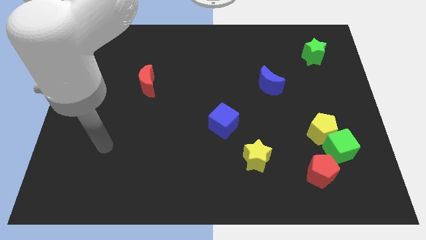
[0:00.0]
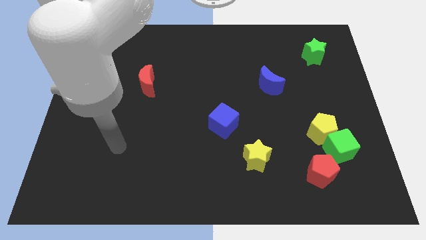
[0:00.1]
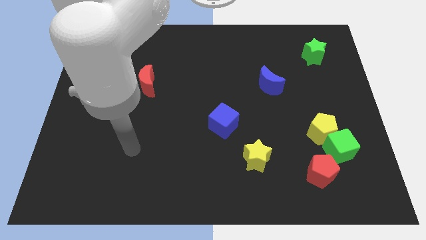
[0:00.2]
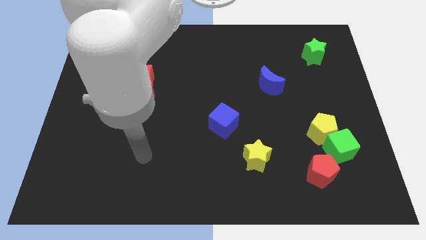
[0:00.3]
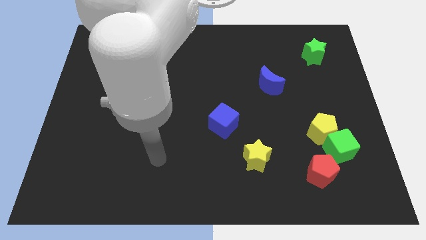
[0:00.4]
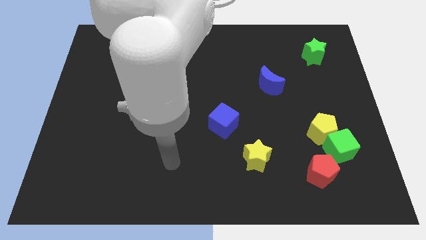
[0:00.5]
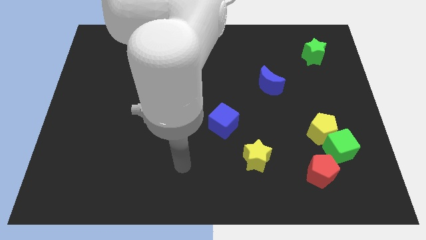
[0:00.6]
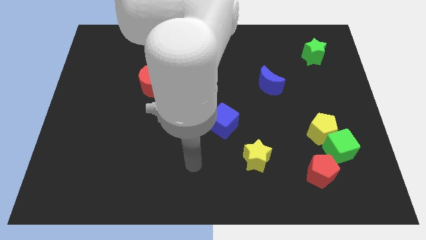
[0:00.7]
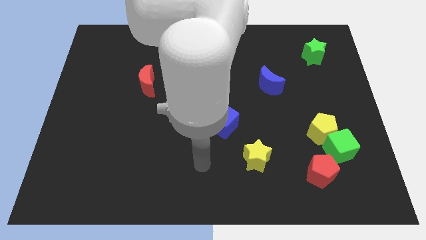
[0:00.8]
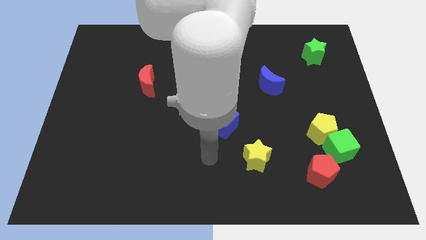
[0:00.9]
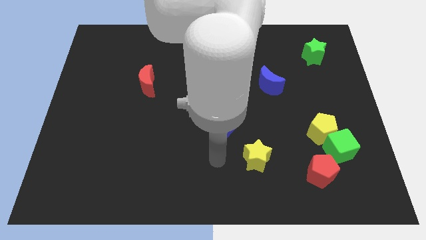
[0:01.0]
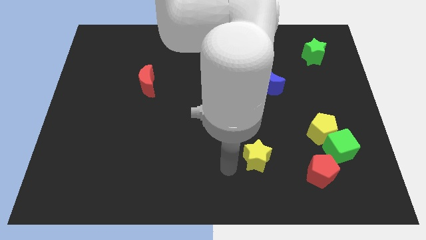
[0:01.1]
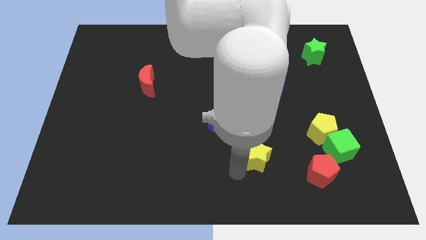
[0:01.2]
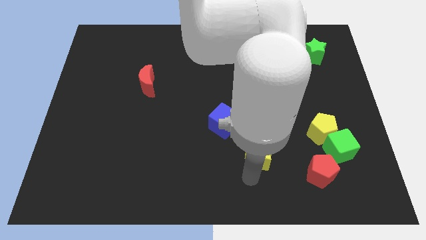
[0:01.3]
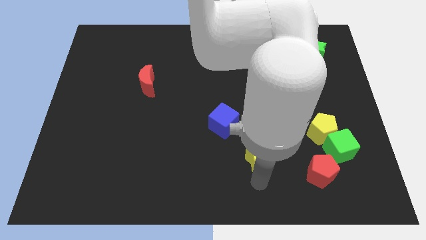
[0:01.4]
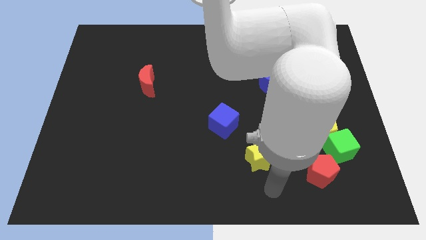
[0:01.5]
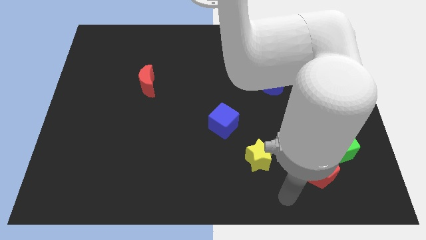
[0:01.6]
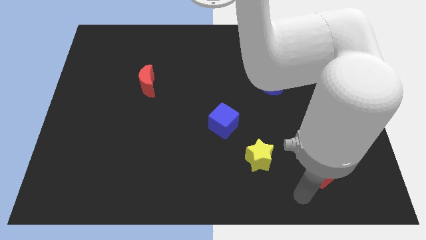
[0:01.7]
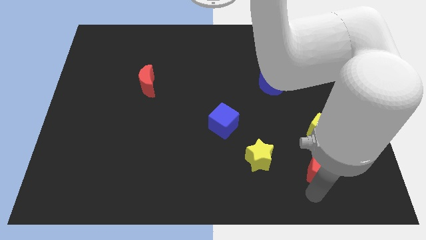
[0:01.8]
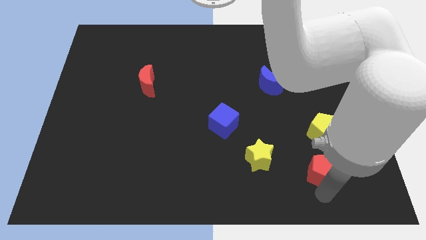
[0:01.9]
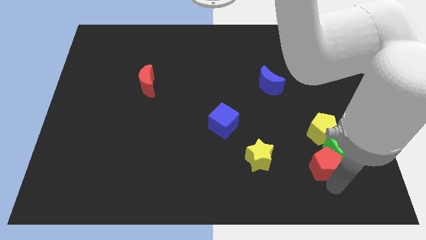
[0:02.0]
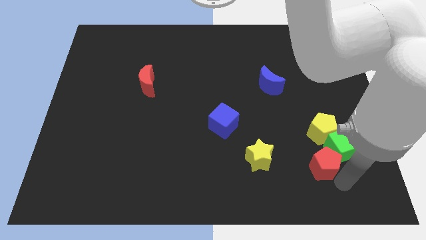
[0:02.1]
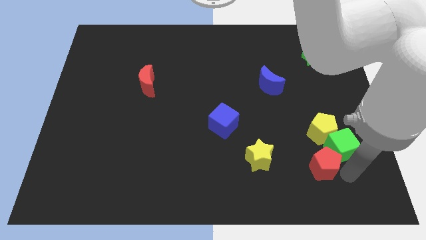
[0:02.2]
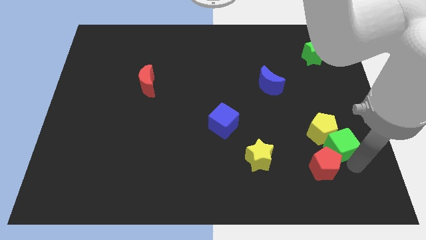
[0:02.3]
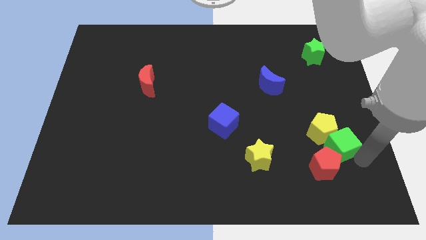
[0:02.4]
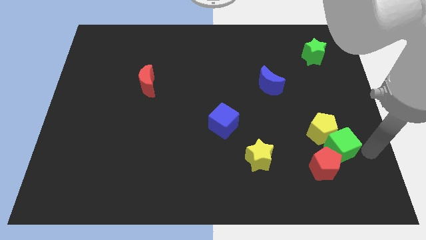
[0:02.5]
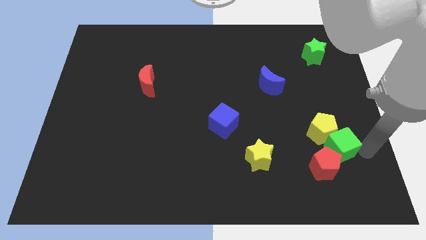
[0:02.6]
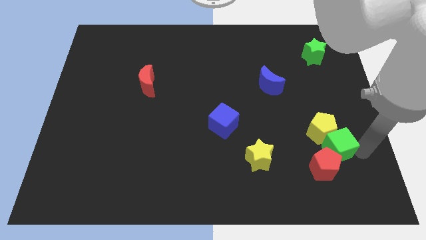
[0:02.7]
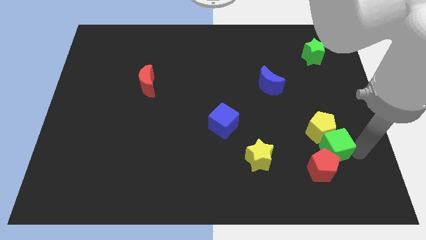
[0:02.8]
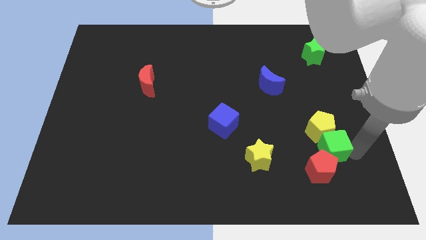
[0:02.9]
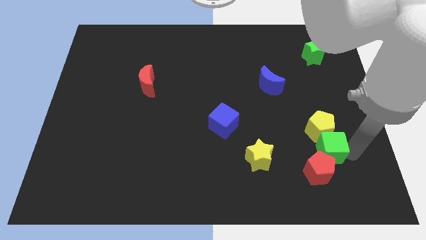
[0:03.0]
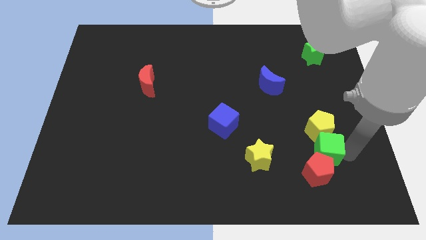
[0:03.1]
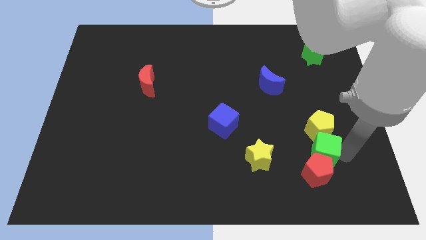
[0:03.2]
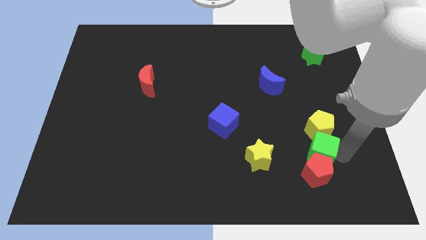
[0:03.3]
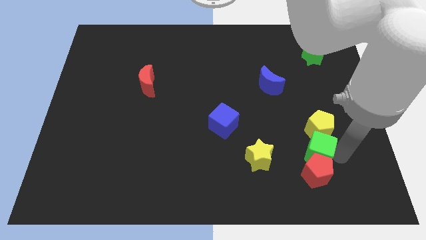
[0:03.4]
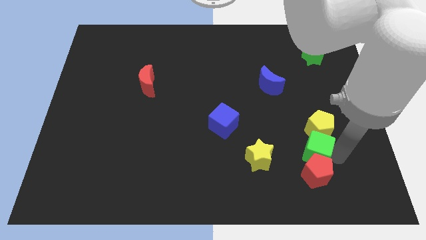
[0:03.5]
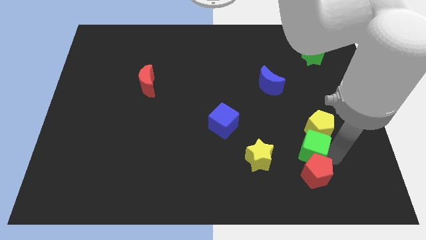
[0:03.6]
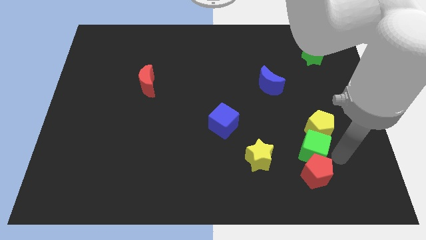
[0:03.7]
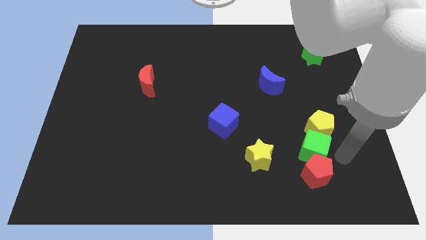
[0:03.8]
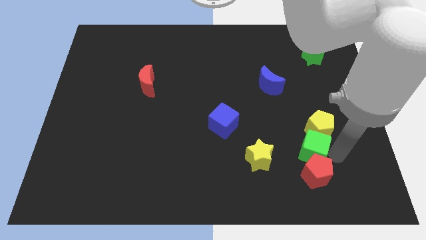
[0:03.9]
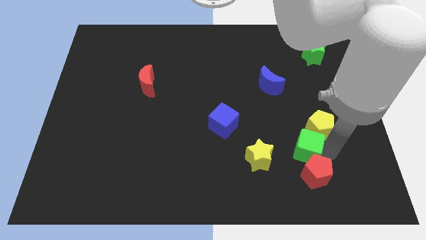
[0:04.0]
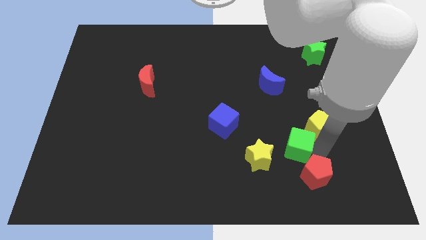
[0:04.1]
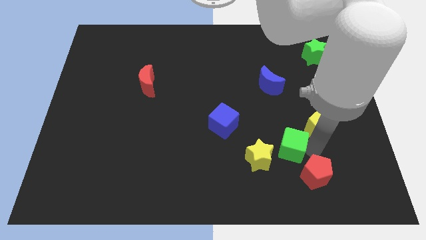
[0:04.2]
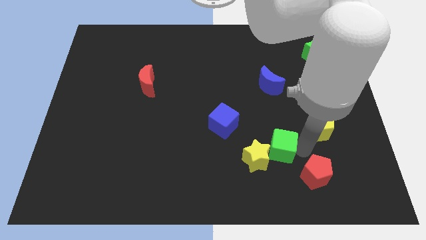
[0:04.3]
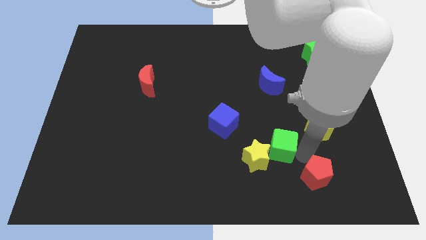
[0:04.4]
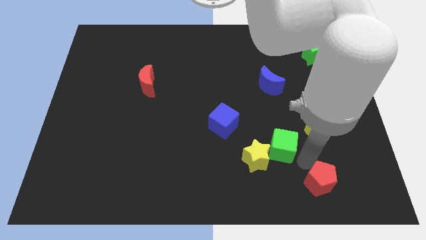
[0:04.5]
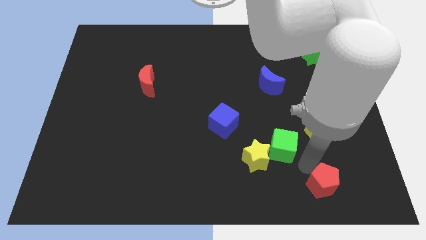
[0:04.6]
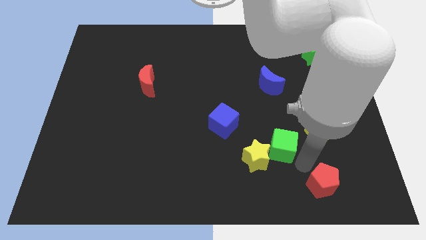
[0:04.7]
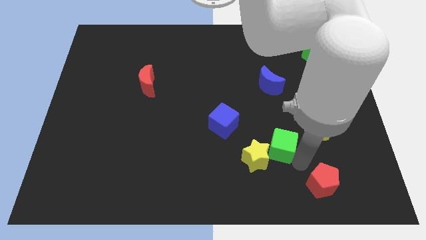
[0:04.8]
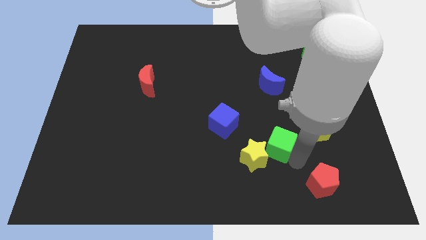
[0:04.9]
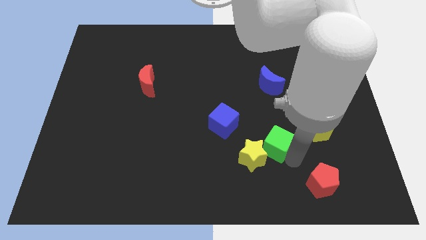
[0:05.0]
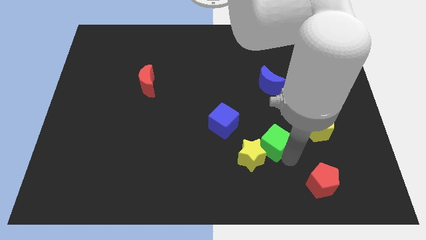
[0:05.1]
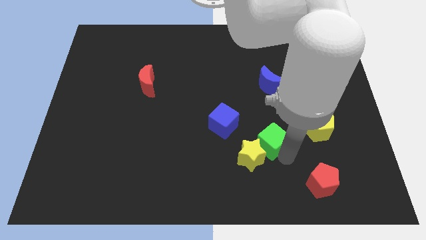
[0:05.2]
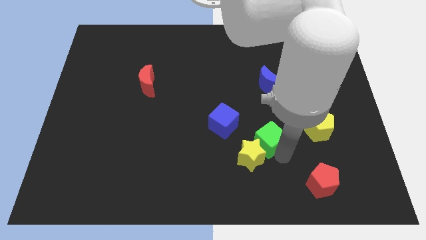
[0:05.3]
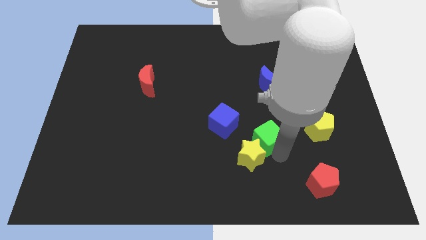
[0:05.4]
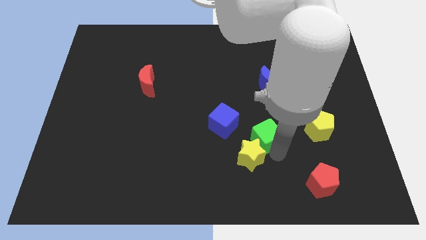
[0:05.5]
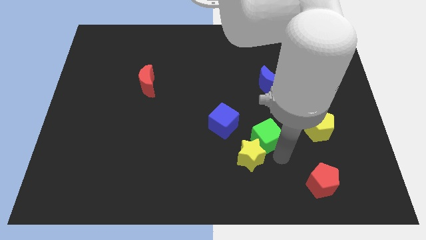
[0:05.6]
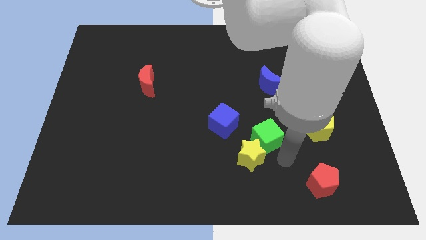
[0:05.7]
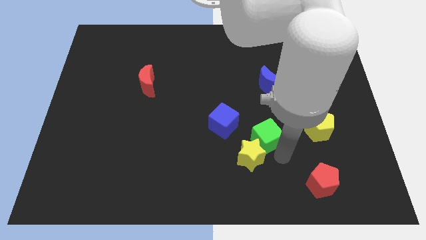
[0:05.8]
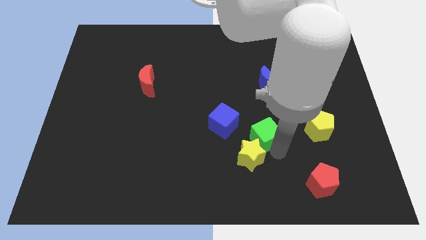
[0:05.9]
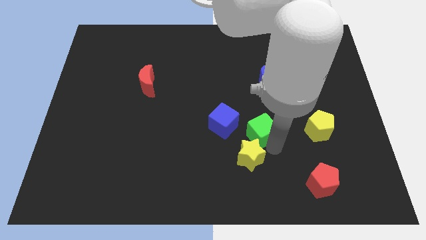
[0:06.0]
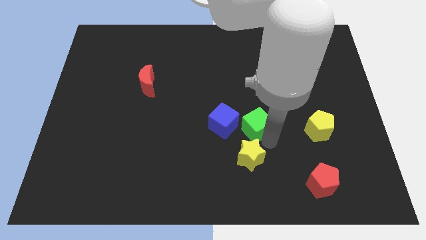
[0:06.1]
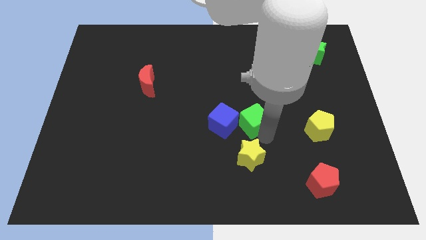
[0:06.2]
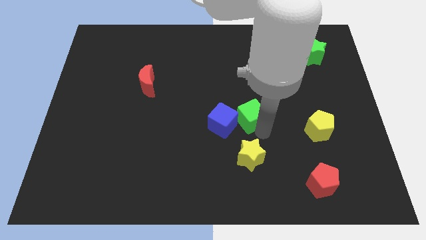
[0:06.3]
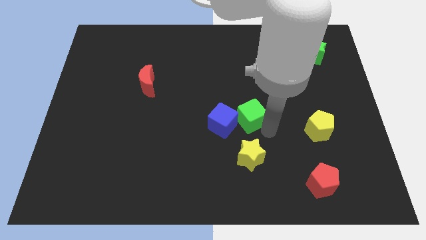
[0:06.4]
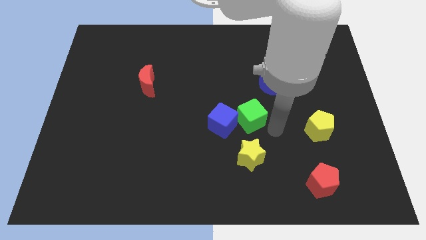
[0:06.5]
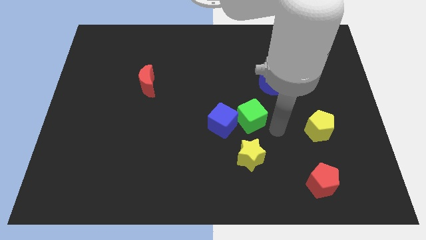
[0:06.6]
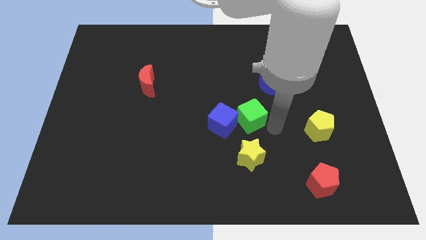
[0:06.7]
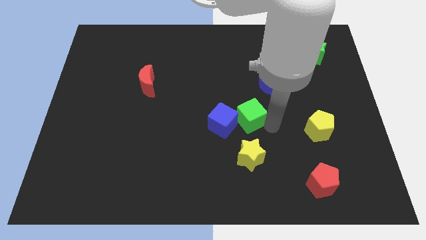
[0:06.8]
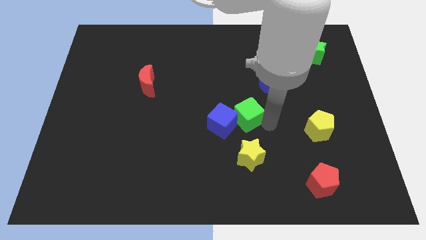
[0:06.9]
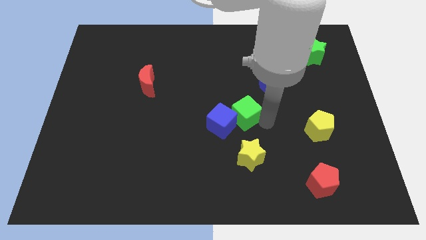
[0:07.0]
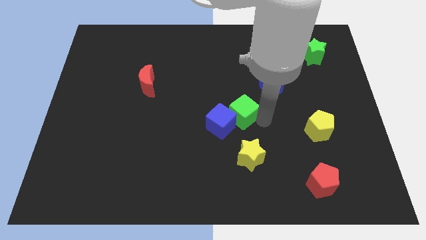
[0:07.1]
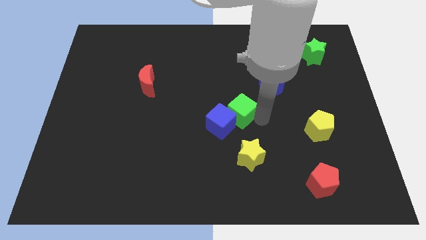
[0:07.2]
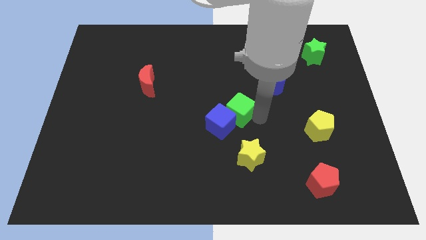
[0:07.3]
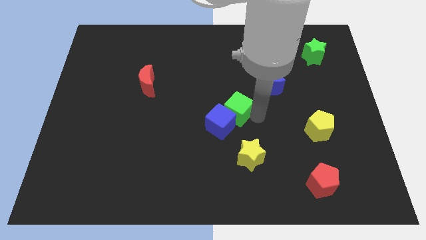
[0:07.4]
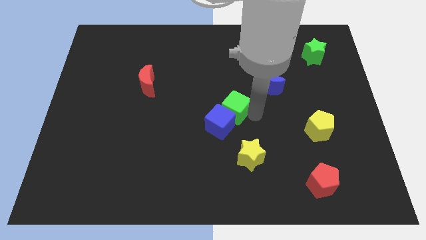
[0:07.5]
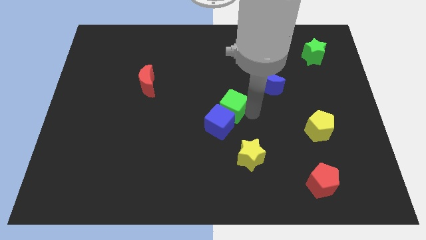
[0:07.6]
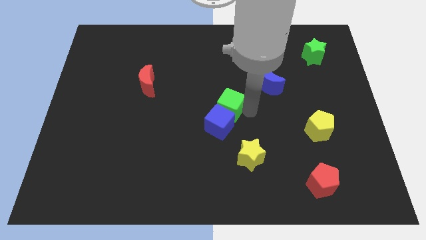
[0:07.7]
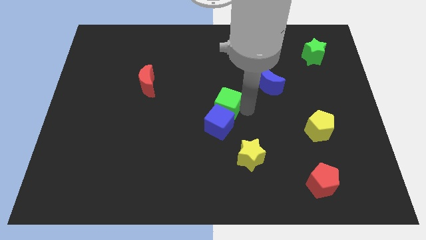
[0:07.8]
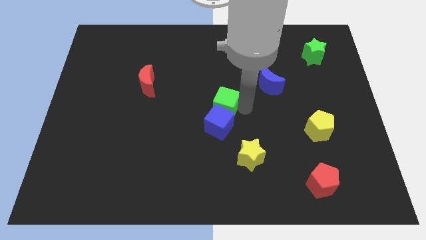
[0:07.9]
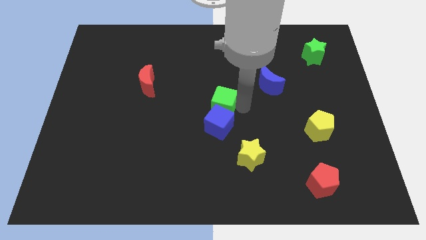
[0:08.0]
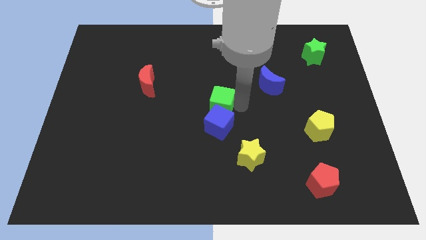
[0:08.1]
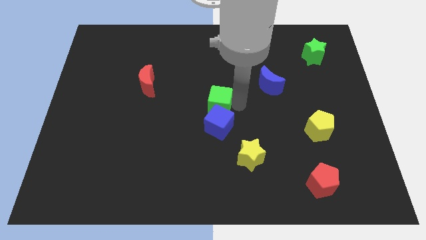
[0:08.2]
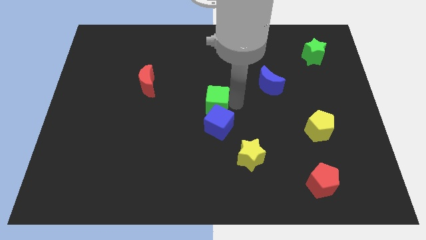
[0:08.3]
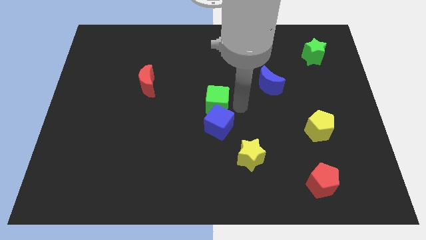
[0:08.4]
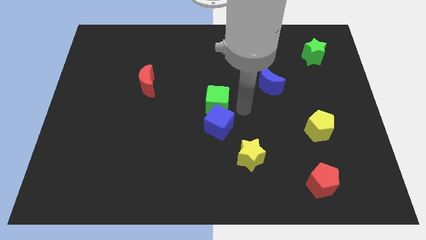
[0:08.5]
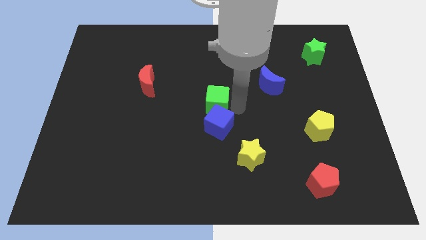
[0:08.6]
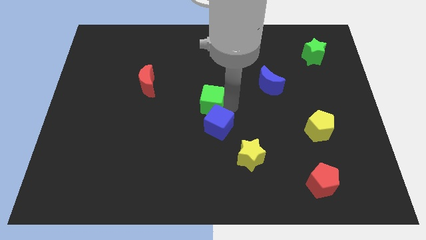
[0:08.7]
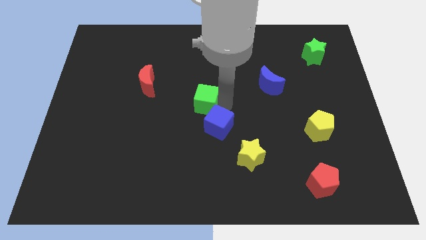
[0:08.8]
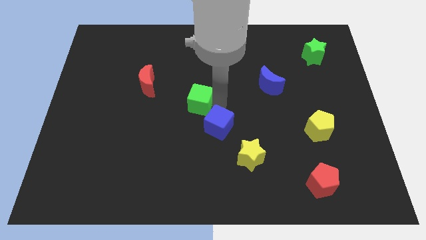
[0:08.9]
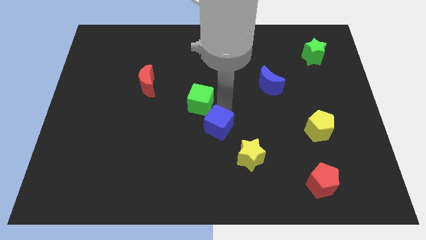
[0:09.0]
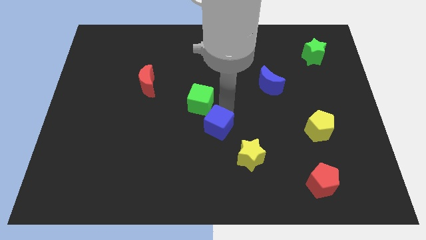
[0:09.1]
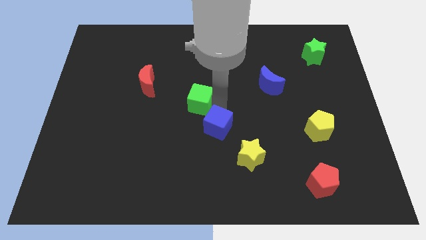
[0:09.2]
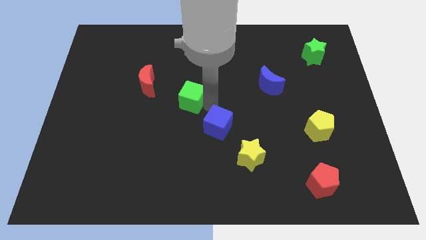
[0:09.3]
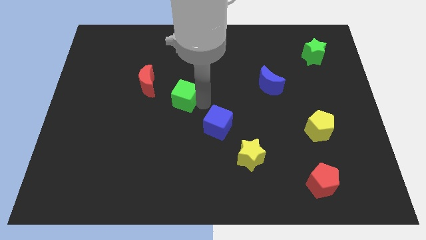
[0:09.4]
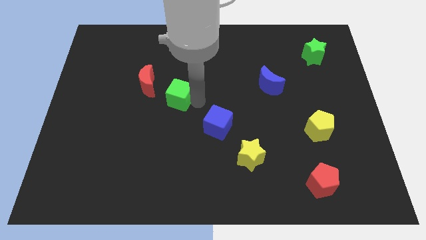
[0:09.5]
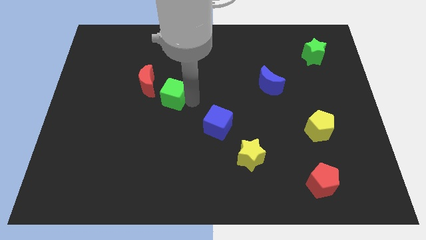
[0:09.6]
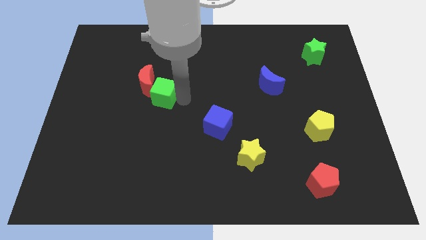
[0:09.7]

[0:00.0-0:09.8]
move the green cube next to the red moon
